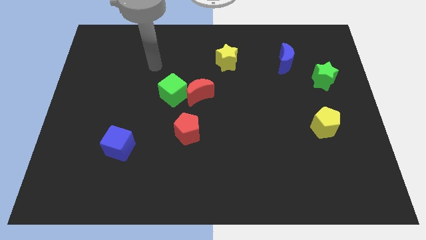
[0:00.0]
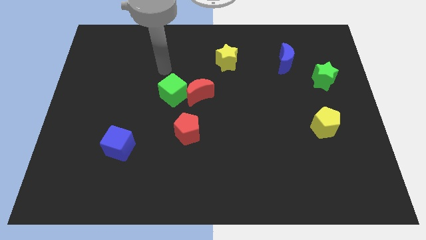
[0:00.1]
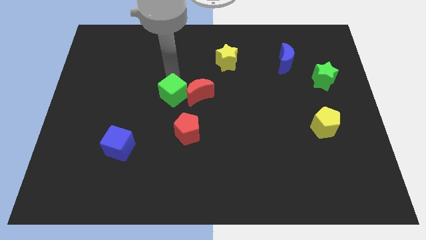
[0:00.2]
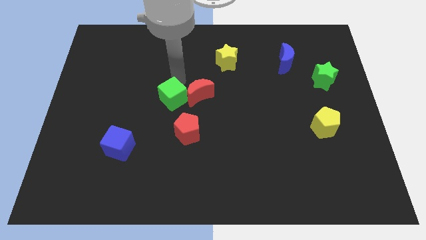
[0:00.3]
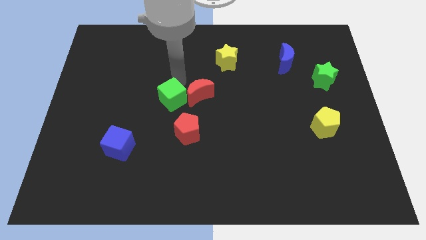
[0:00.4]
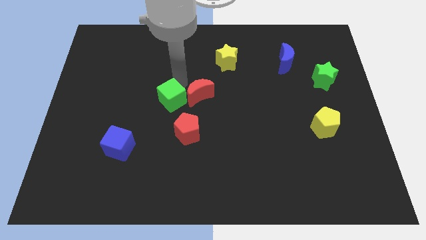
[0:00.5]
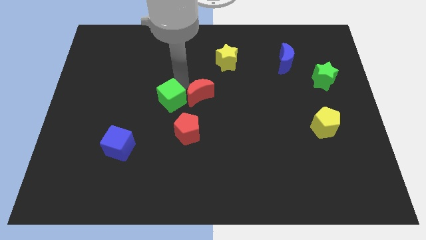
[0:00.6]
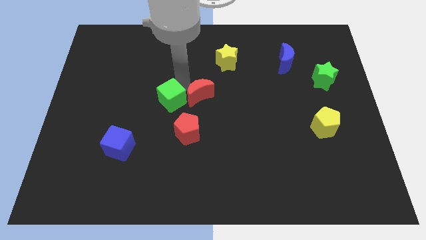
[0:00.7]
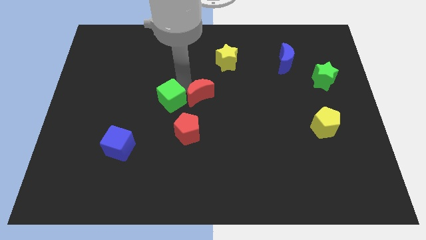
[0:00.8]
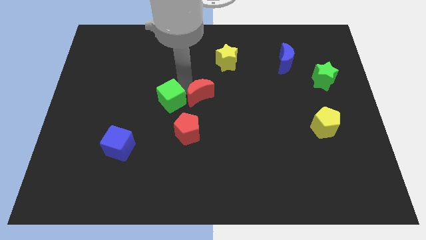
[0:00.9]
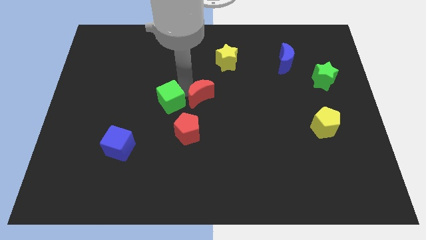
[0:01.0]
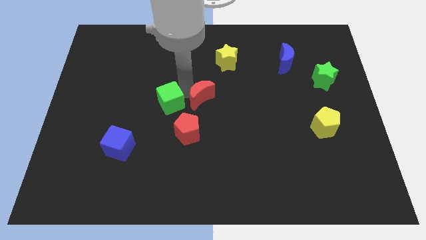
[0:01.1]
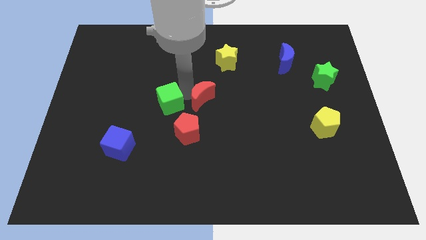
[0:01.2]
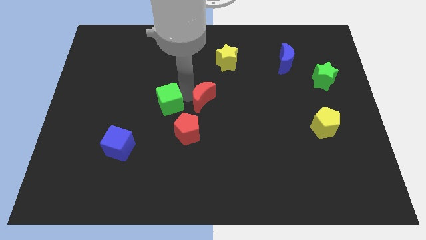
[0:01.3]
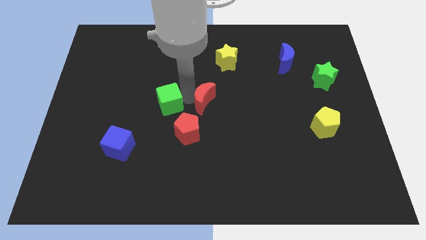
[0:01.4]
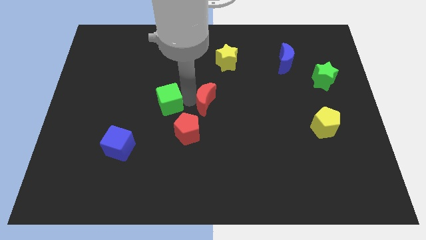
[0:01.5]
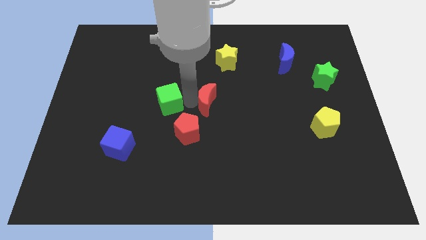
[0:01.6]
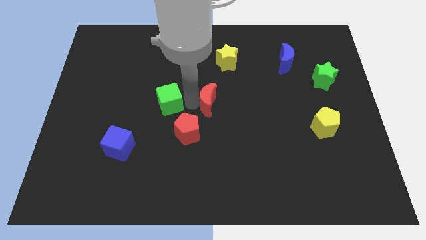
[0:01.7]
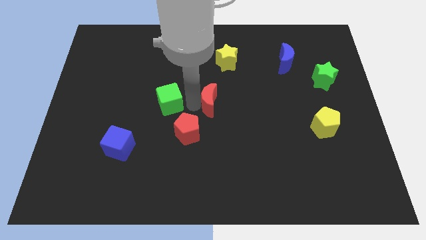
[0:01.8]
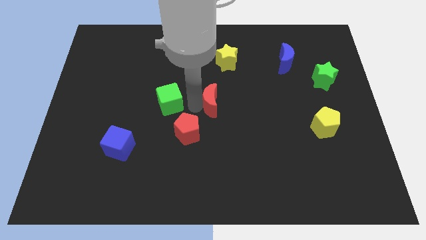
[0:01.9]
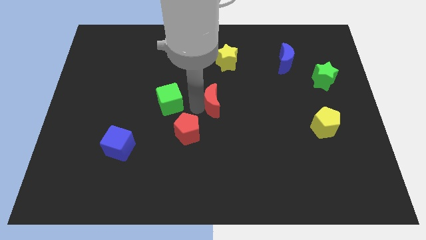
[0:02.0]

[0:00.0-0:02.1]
separate the red moon from the green cube

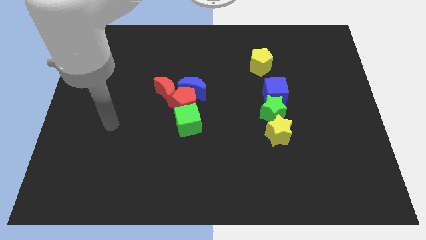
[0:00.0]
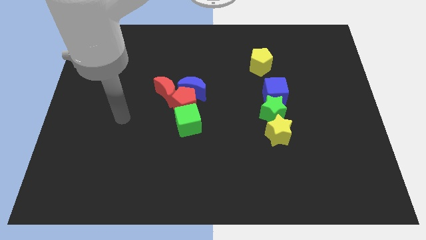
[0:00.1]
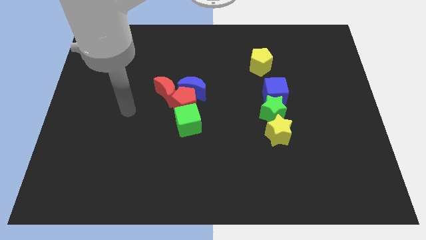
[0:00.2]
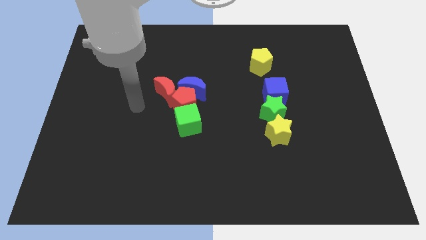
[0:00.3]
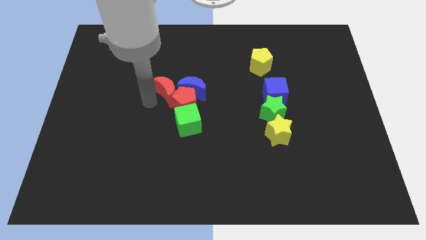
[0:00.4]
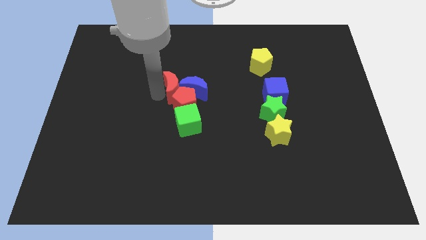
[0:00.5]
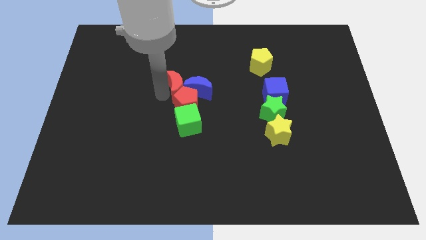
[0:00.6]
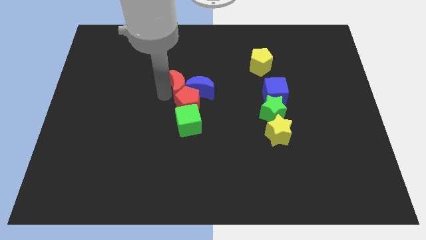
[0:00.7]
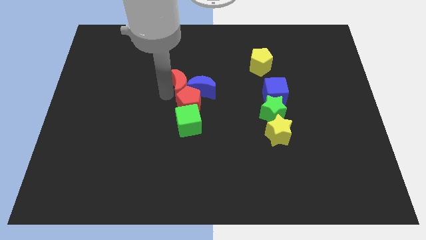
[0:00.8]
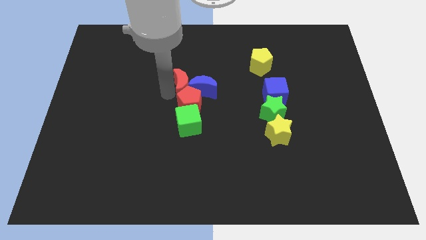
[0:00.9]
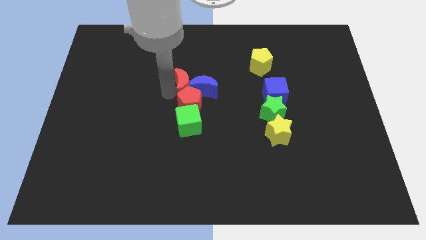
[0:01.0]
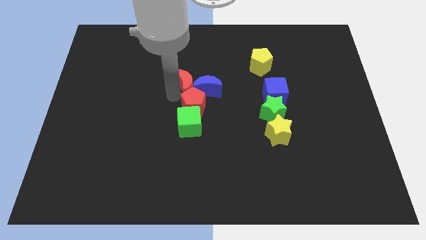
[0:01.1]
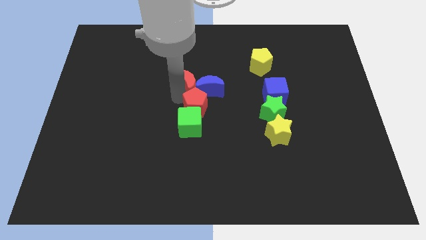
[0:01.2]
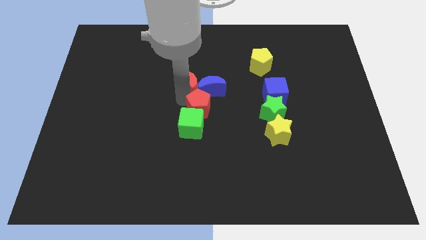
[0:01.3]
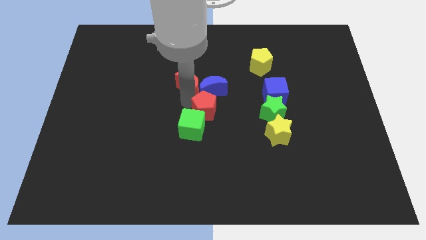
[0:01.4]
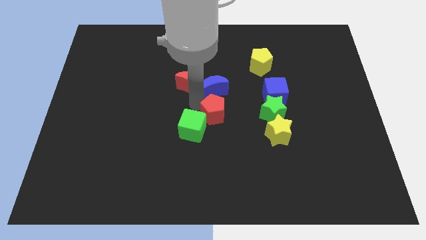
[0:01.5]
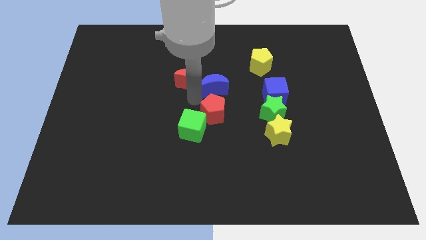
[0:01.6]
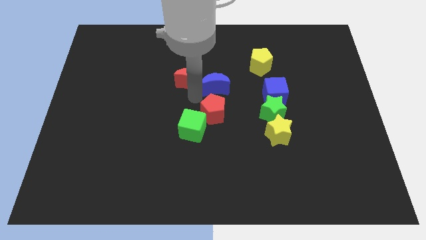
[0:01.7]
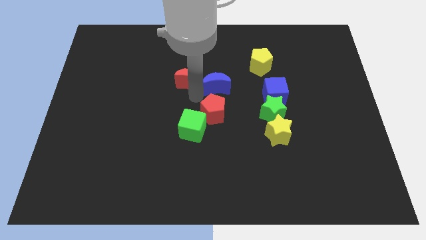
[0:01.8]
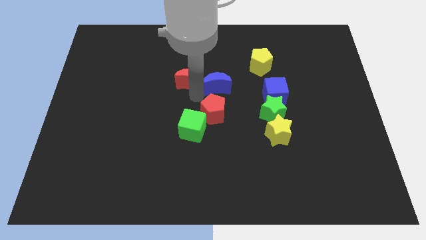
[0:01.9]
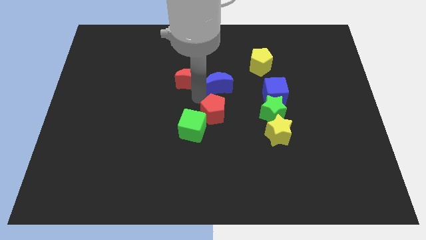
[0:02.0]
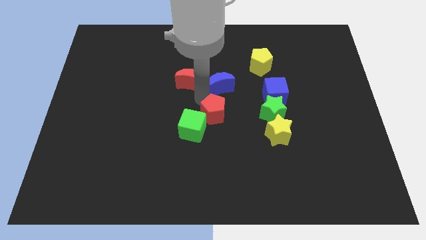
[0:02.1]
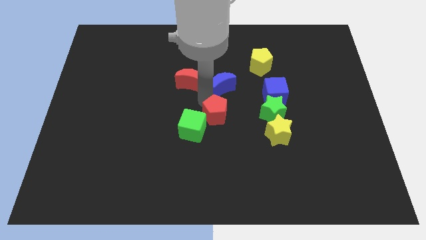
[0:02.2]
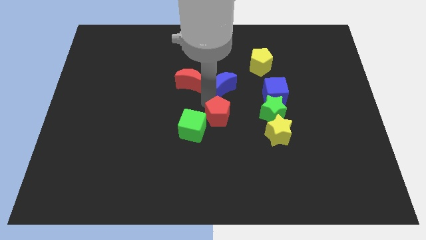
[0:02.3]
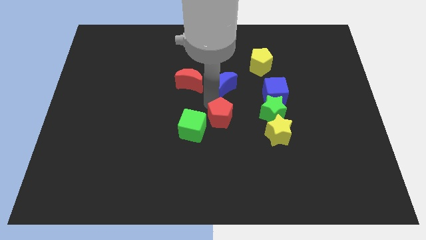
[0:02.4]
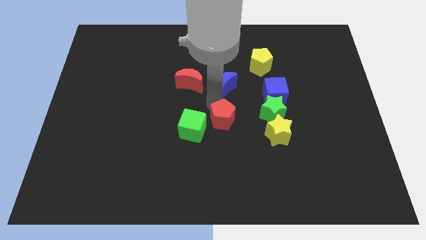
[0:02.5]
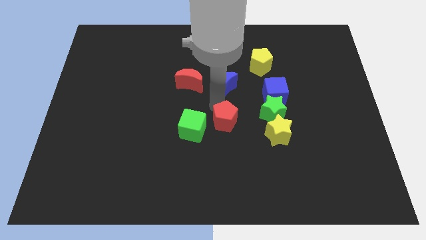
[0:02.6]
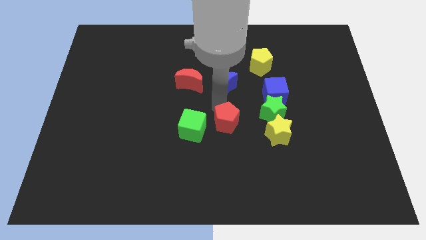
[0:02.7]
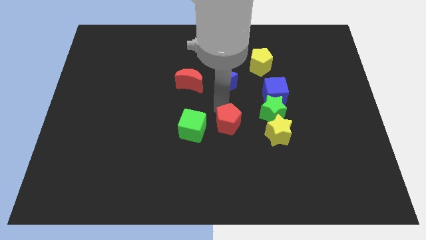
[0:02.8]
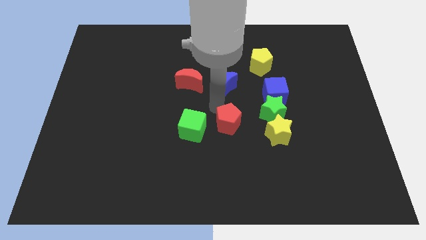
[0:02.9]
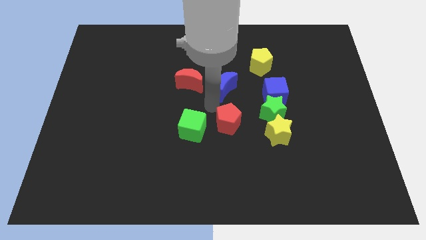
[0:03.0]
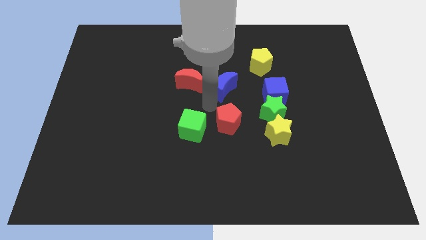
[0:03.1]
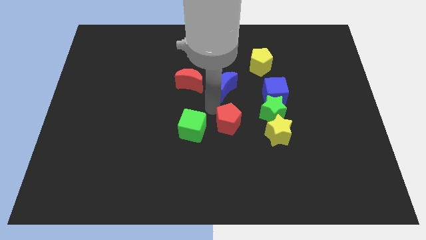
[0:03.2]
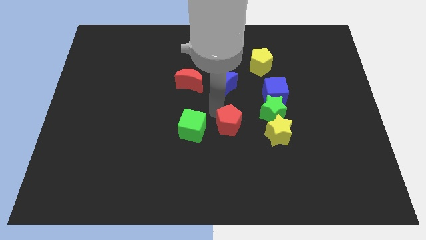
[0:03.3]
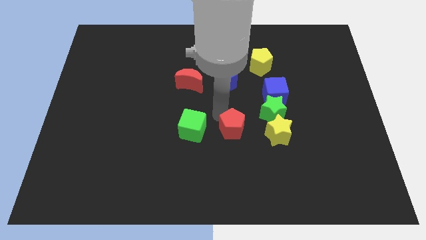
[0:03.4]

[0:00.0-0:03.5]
separate the red pentagon from the blue moon, red moon, and green cube

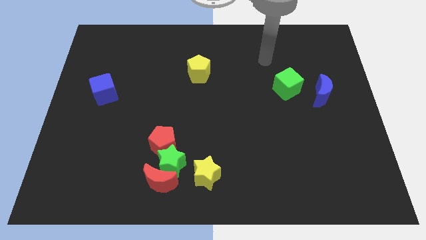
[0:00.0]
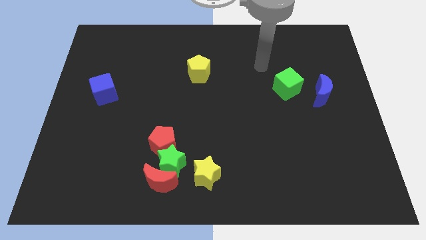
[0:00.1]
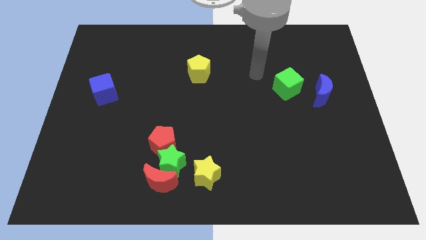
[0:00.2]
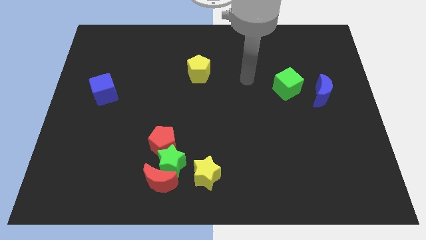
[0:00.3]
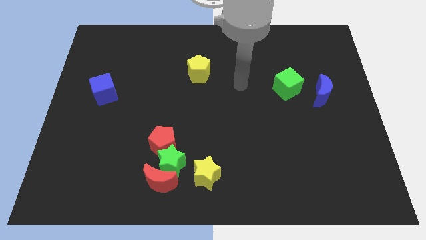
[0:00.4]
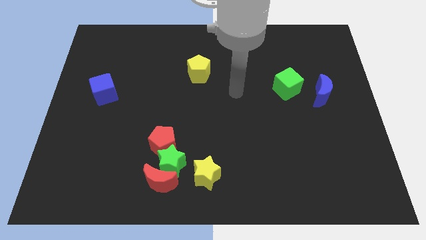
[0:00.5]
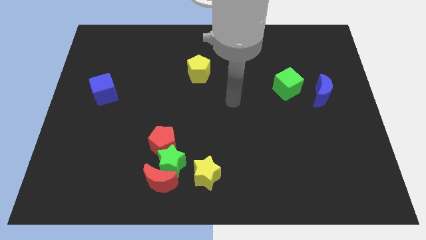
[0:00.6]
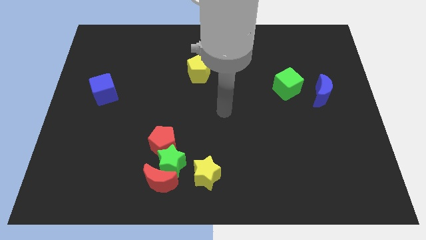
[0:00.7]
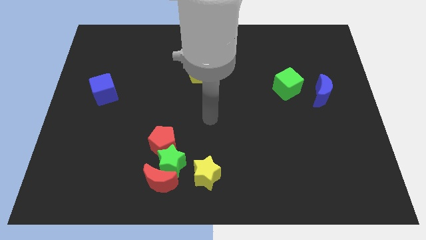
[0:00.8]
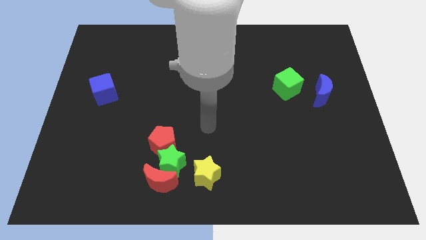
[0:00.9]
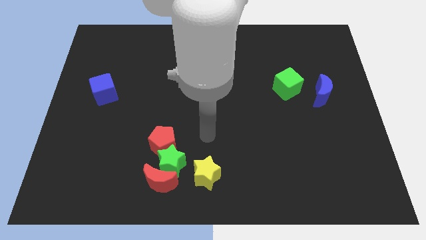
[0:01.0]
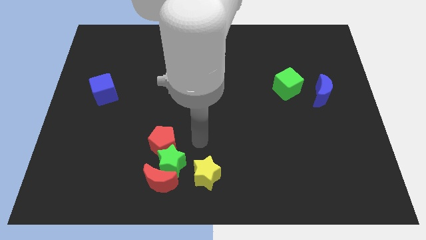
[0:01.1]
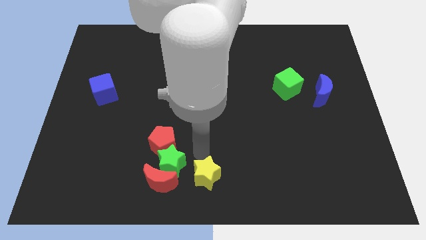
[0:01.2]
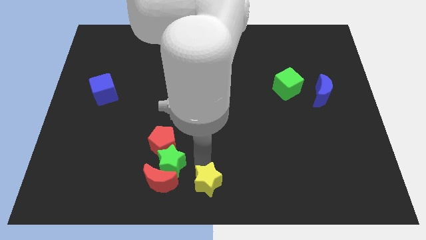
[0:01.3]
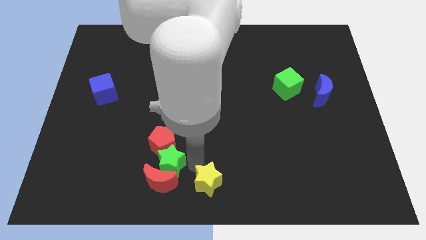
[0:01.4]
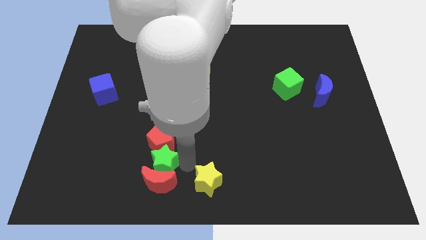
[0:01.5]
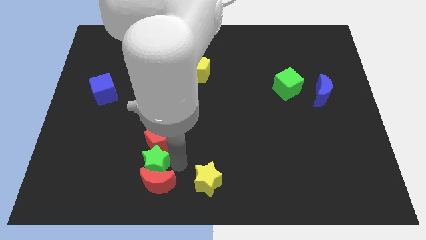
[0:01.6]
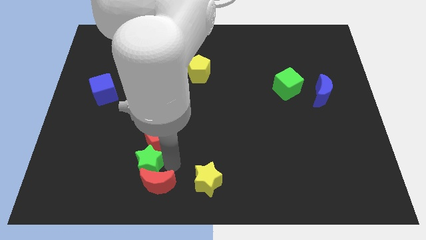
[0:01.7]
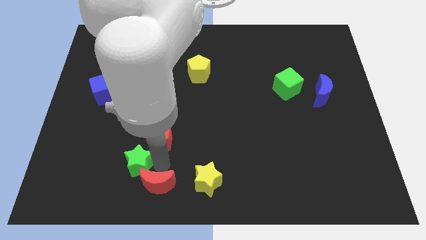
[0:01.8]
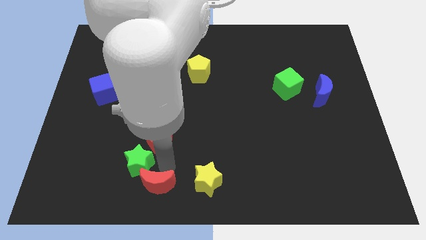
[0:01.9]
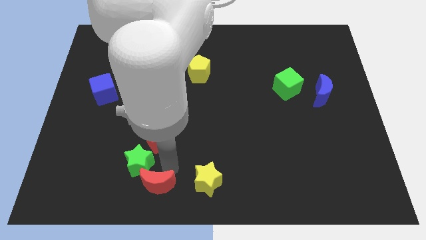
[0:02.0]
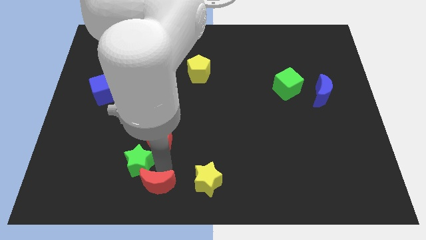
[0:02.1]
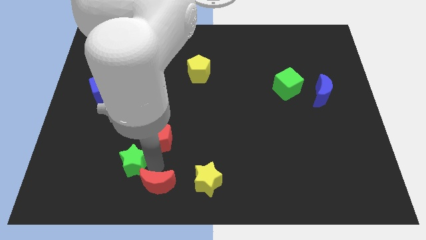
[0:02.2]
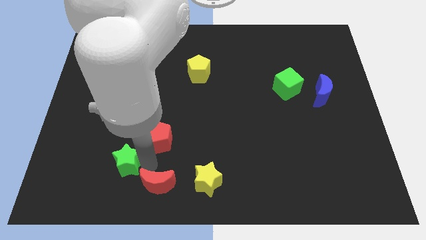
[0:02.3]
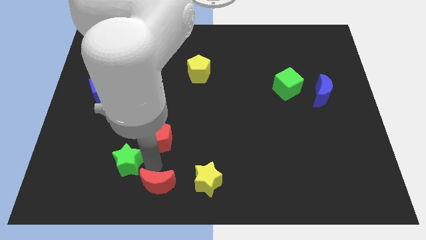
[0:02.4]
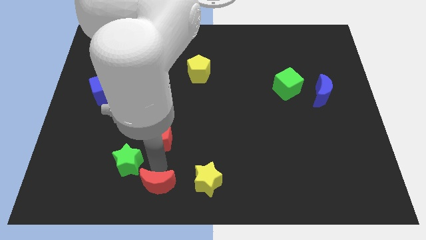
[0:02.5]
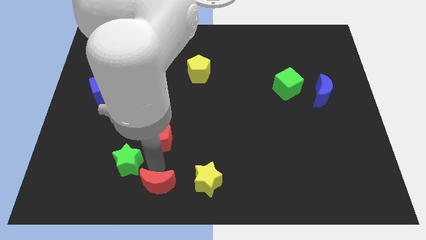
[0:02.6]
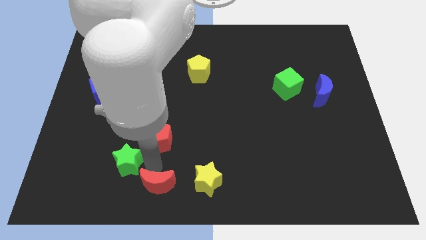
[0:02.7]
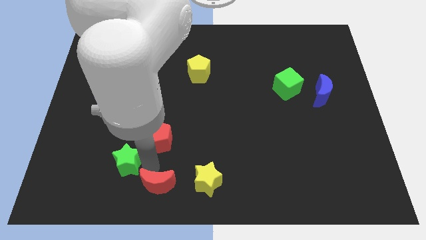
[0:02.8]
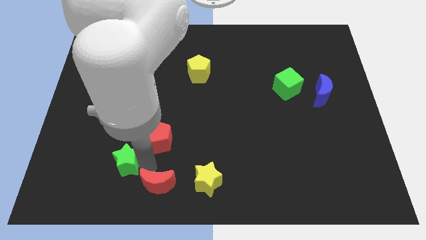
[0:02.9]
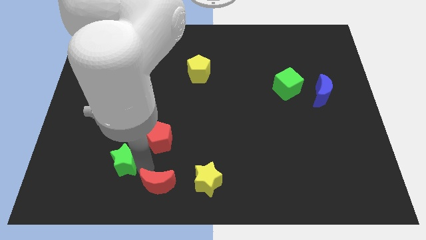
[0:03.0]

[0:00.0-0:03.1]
move the green star away from the group

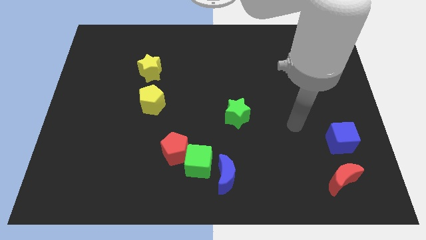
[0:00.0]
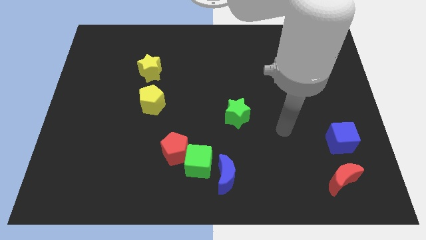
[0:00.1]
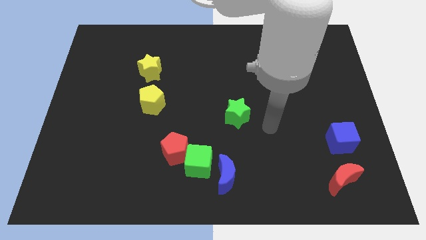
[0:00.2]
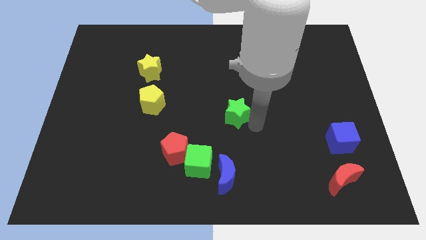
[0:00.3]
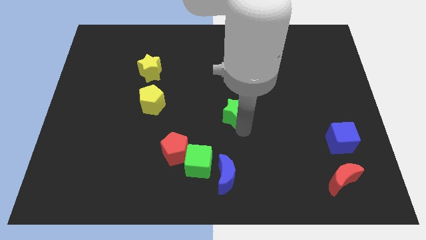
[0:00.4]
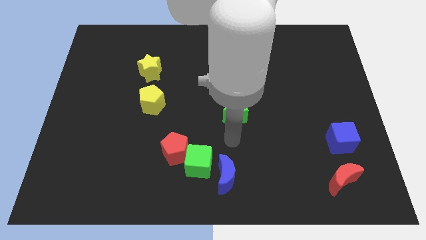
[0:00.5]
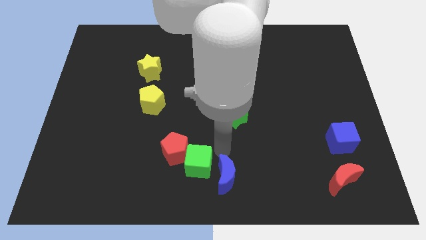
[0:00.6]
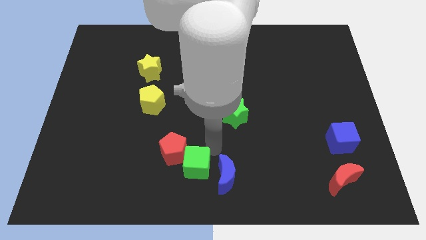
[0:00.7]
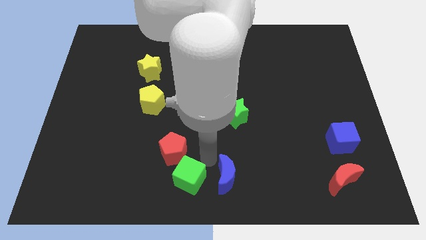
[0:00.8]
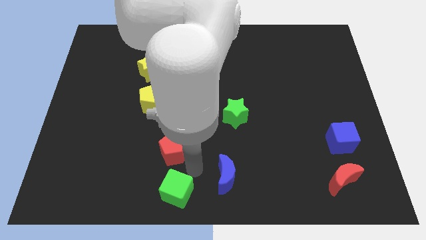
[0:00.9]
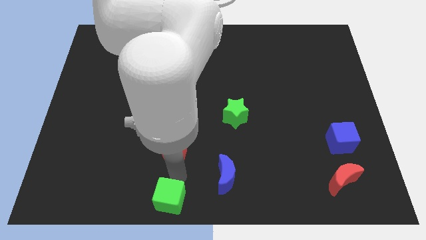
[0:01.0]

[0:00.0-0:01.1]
separate the red pentagon from the green cube
